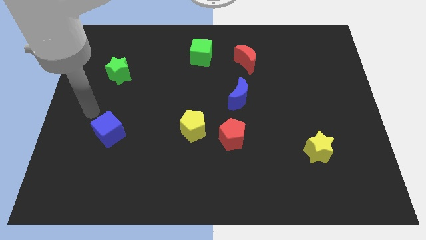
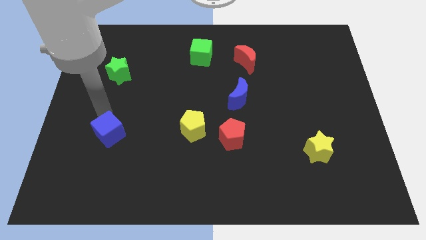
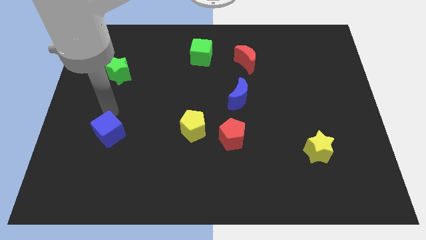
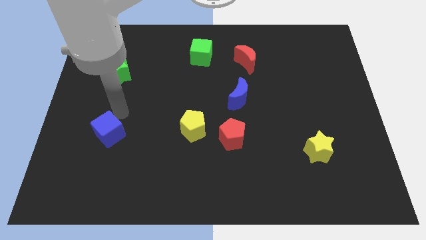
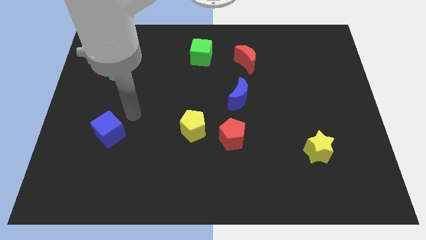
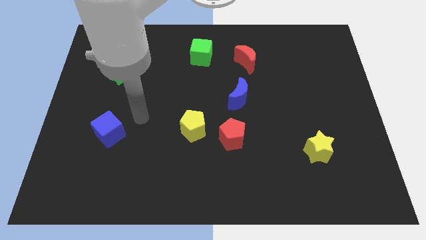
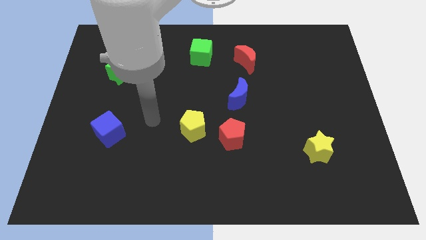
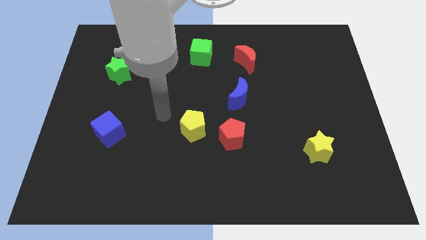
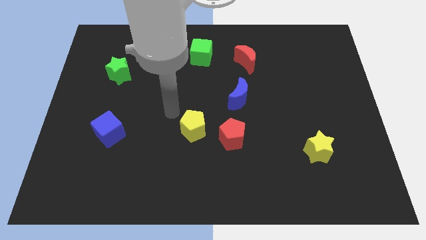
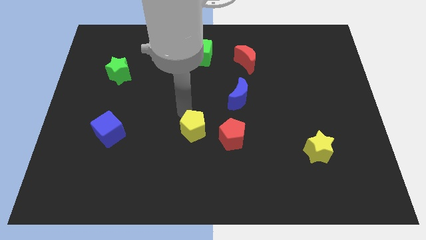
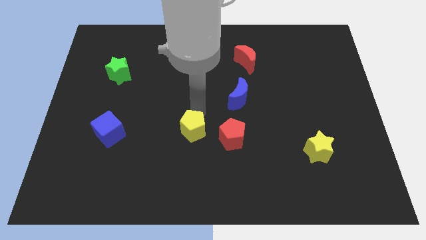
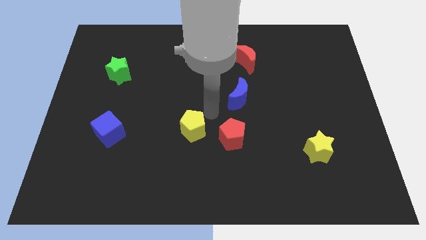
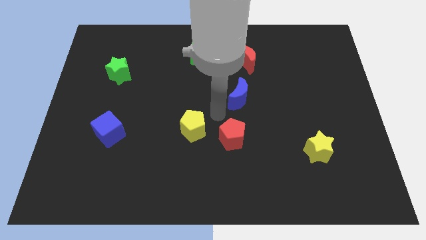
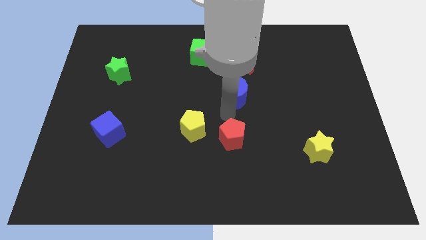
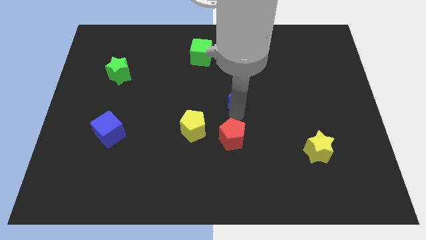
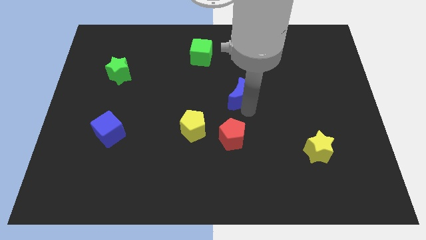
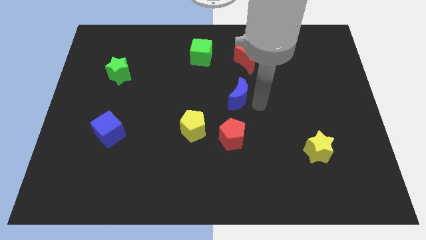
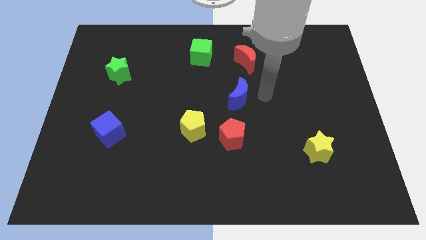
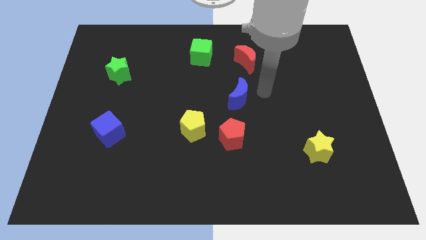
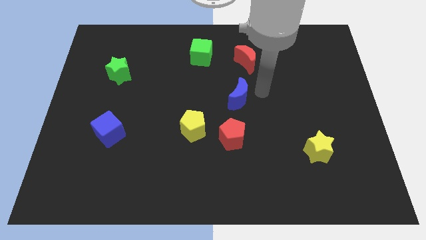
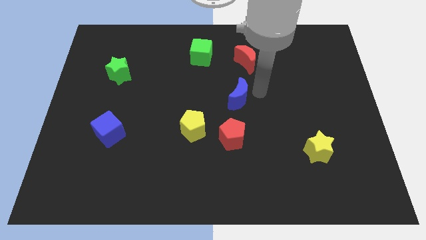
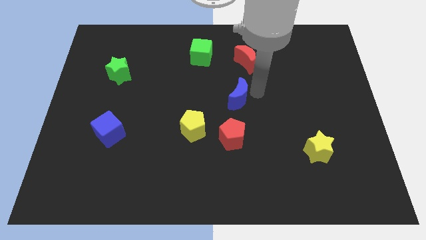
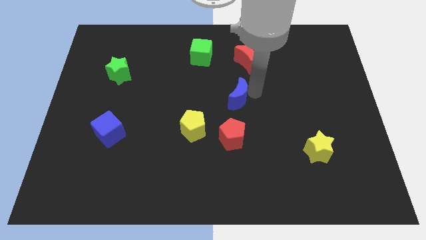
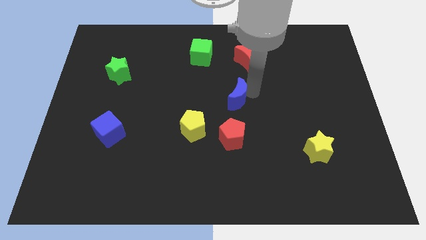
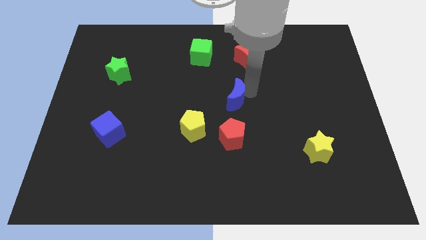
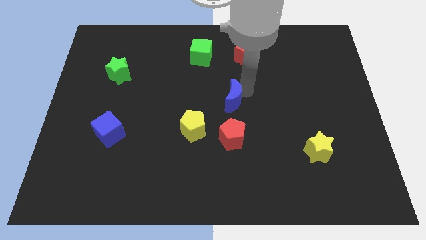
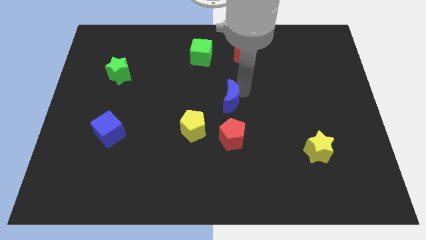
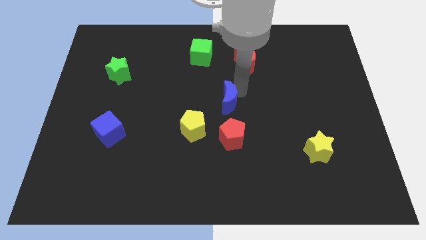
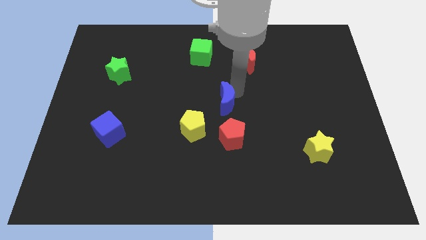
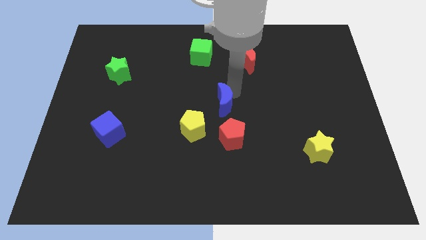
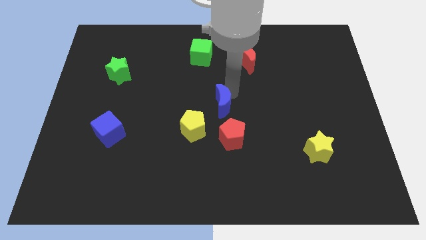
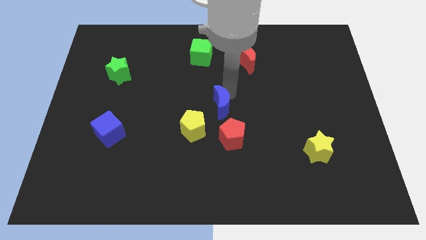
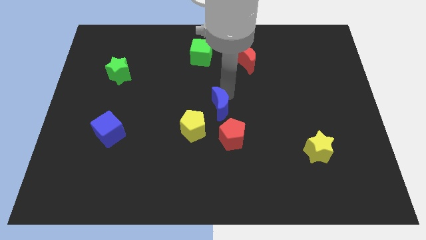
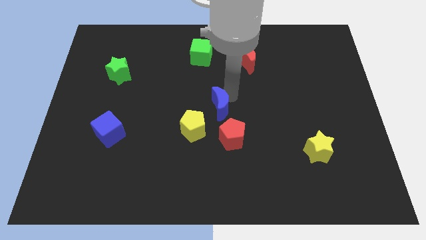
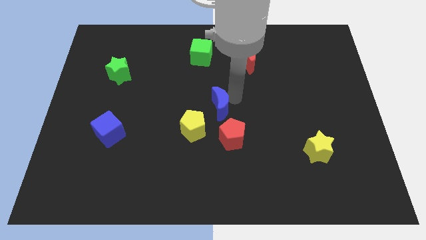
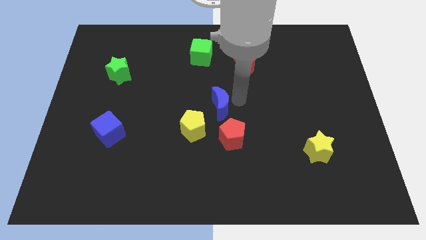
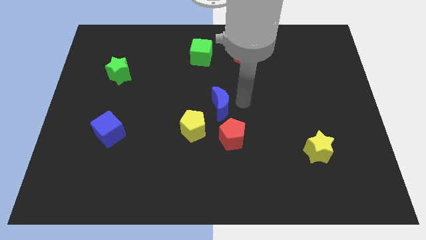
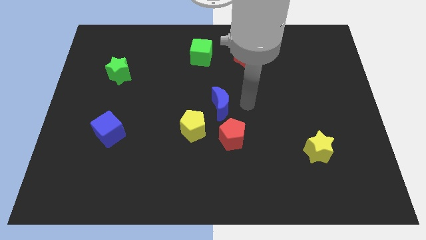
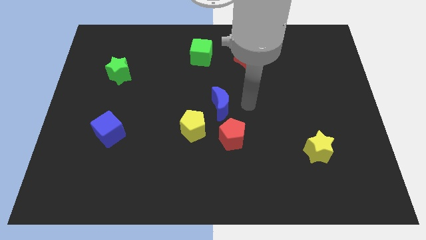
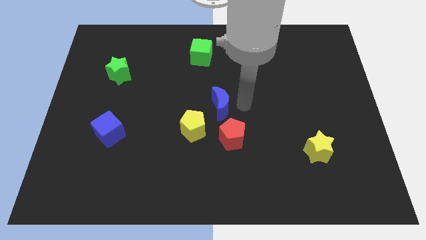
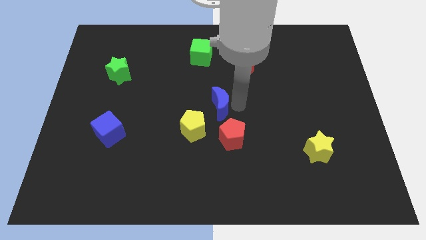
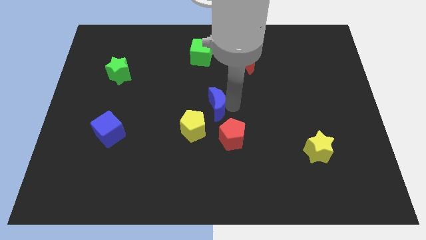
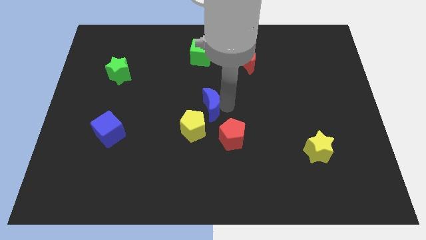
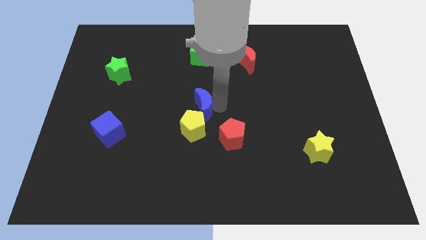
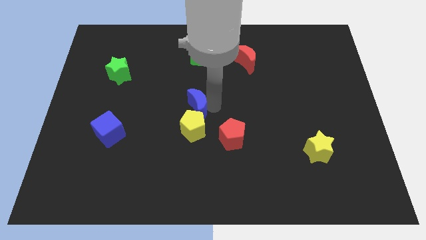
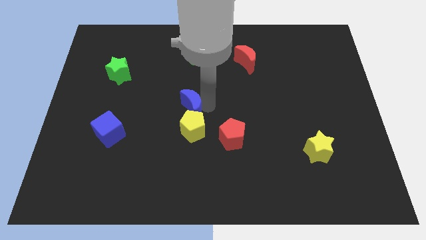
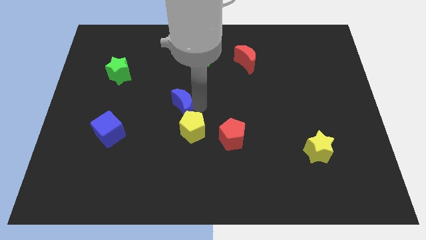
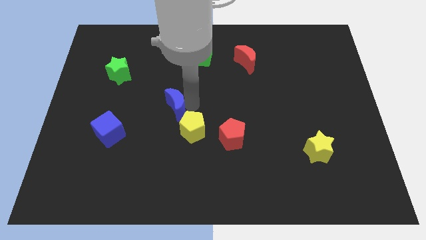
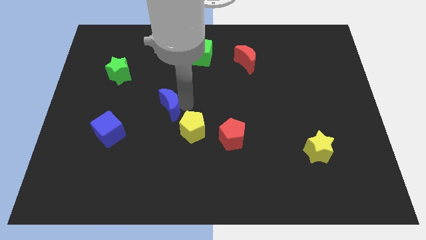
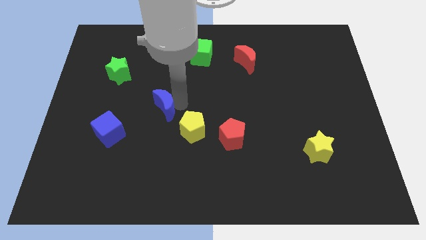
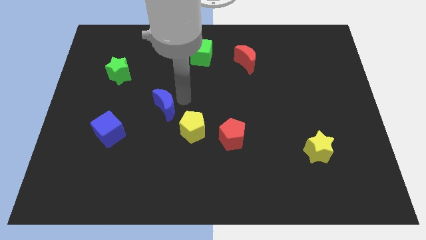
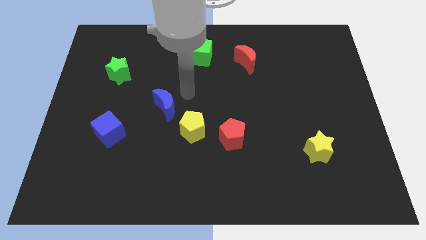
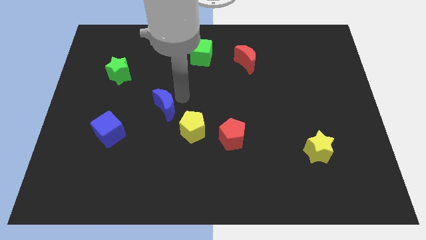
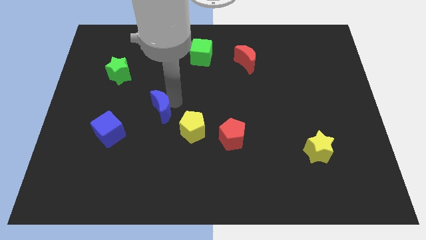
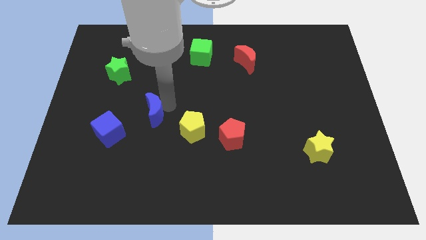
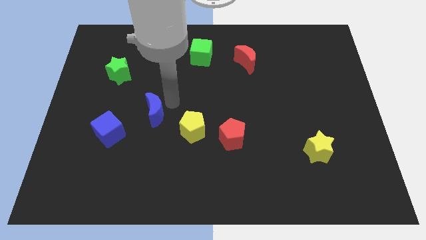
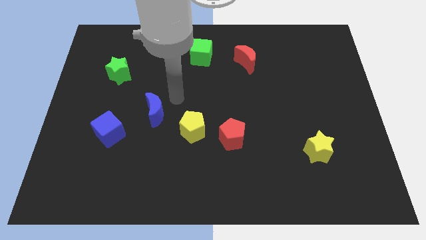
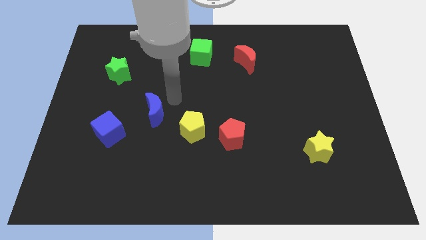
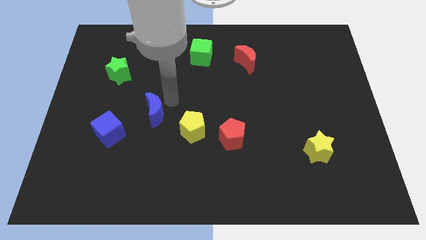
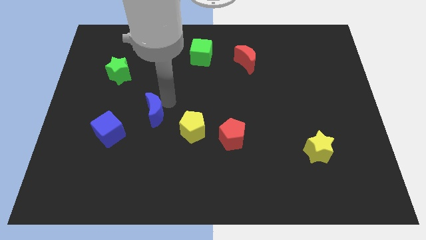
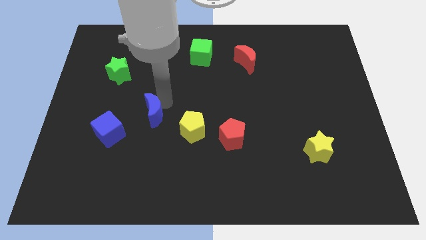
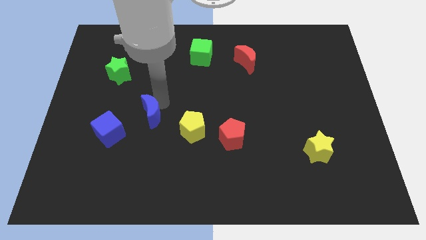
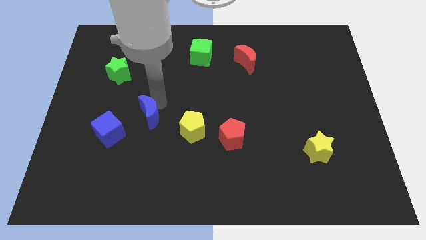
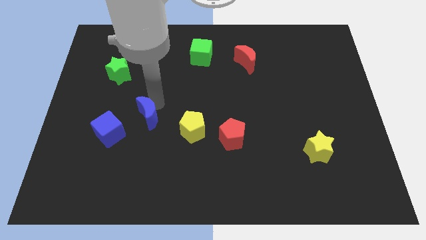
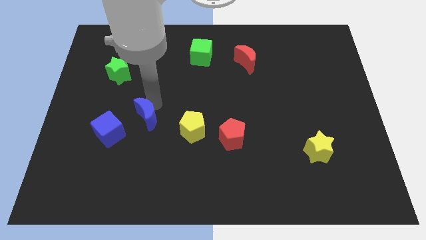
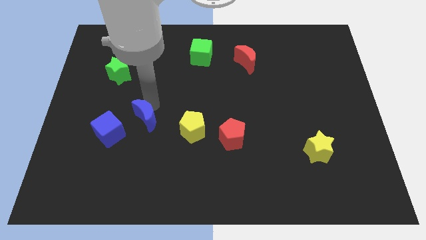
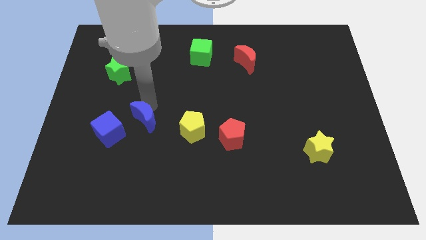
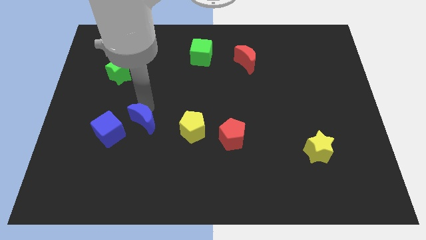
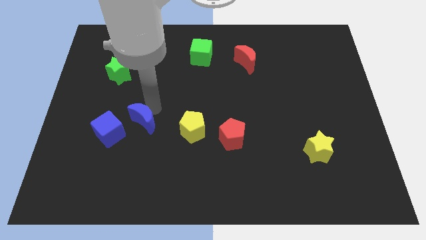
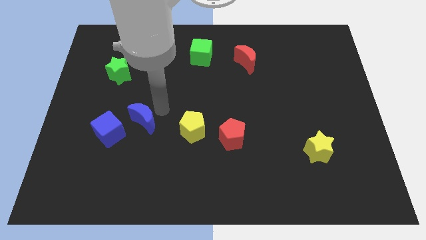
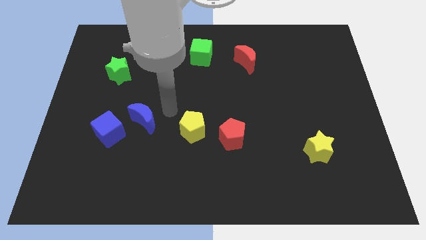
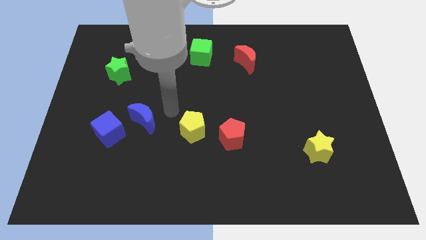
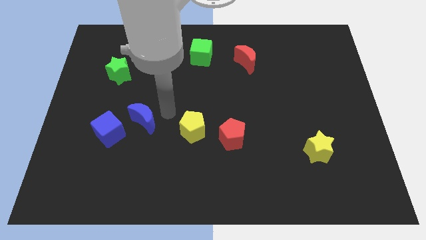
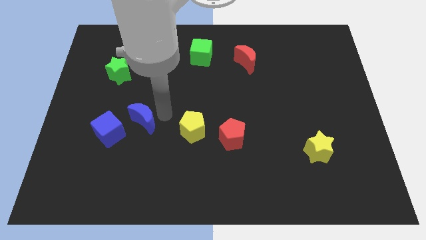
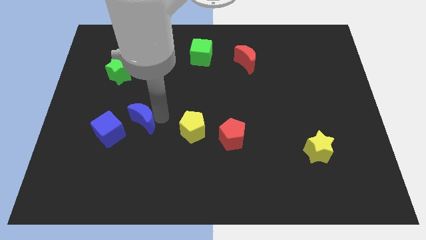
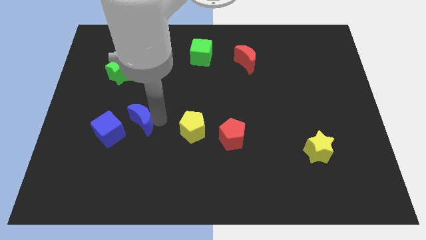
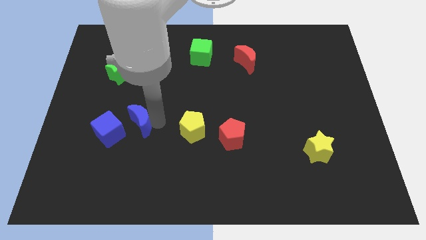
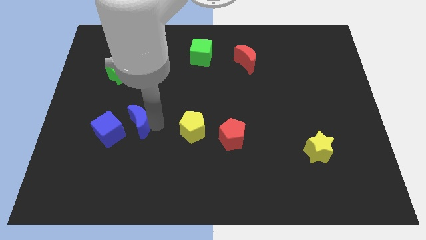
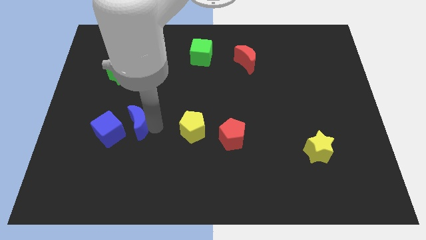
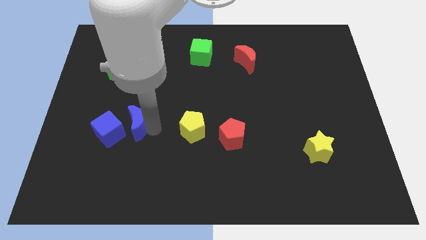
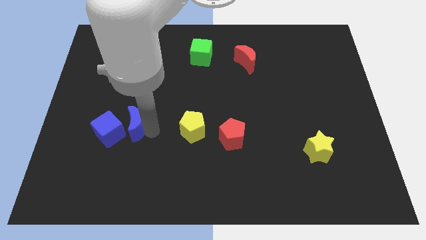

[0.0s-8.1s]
push the blue moon to the blue cube
